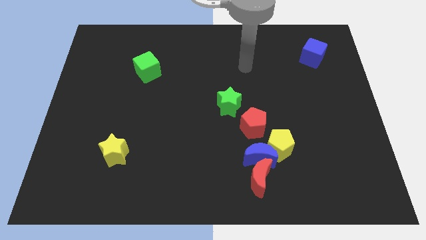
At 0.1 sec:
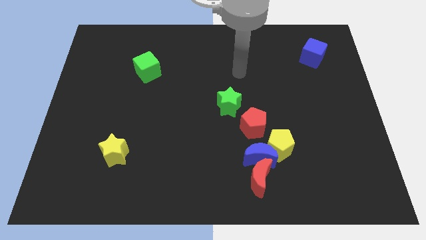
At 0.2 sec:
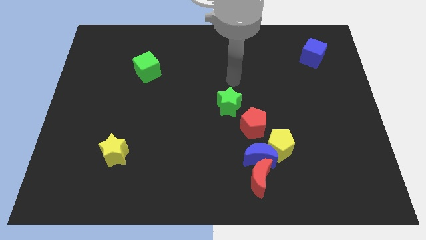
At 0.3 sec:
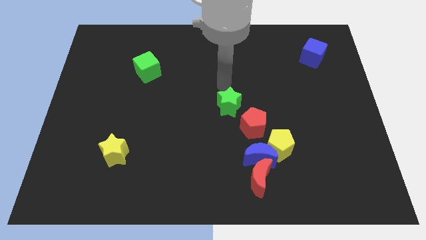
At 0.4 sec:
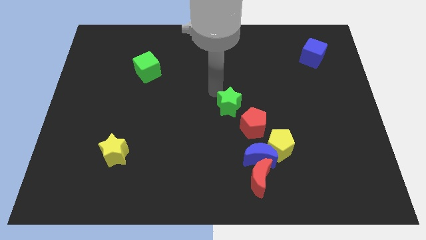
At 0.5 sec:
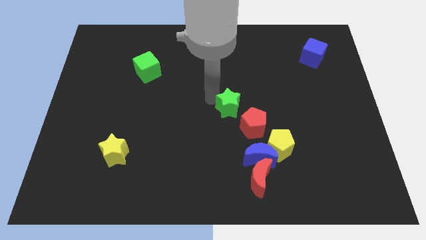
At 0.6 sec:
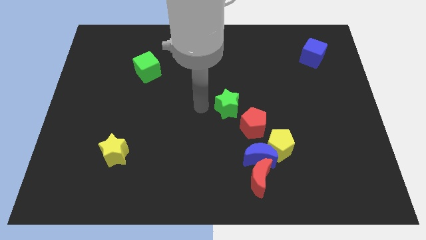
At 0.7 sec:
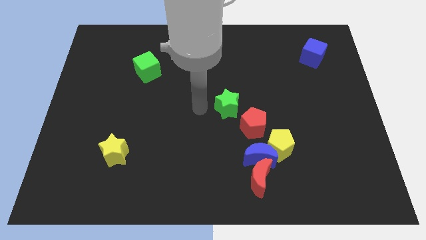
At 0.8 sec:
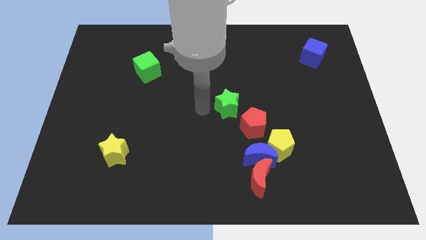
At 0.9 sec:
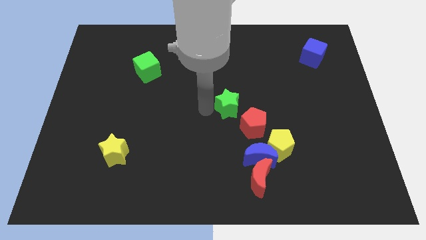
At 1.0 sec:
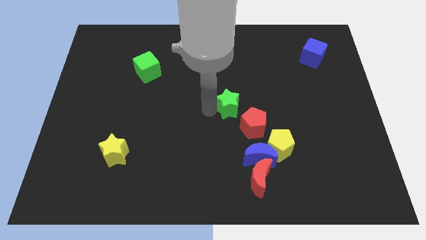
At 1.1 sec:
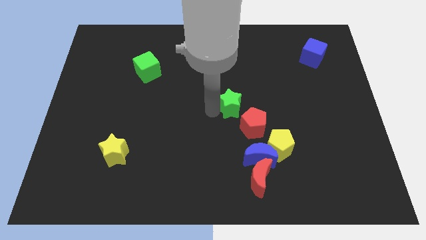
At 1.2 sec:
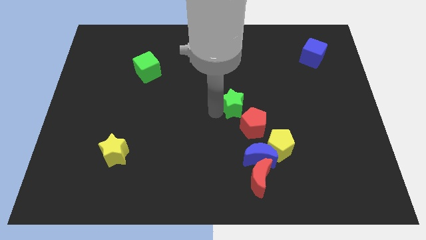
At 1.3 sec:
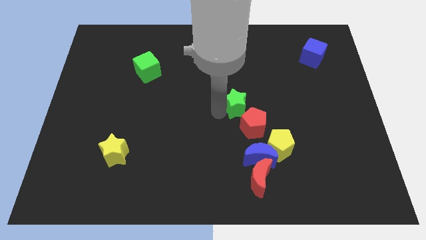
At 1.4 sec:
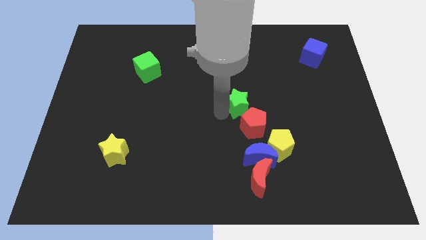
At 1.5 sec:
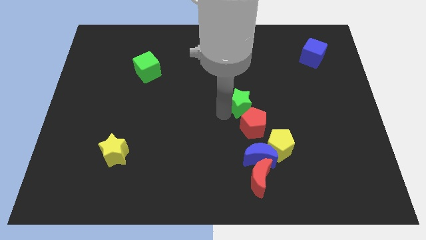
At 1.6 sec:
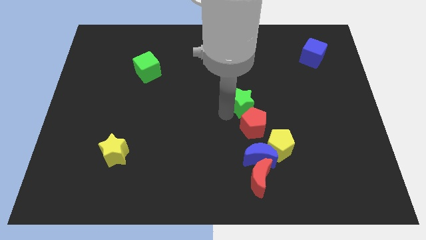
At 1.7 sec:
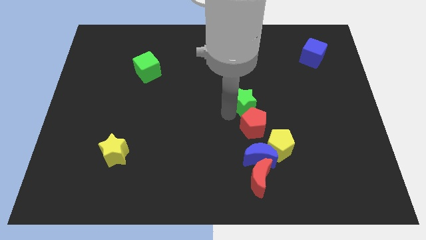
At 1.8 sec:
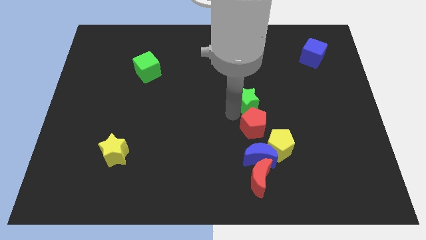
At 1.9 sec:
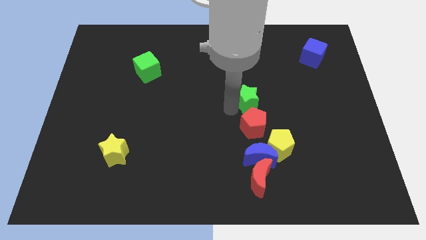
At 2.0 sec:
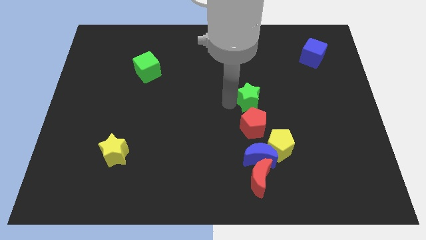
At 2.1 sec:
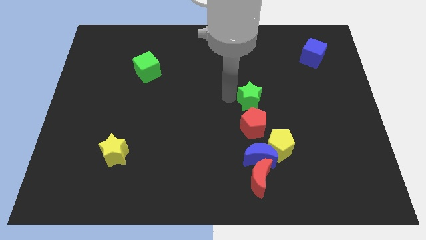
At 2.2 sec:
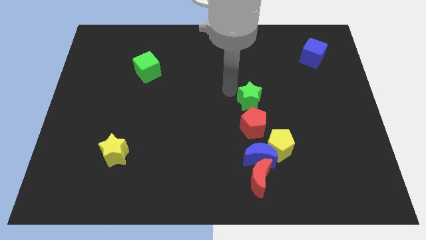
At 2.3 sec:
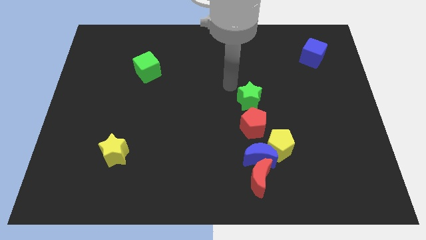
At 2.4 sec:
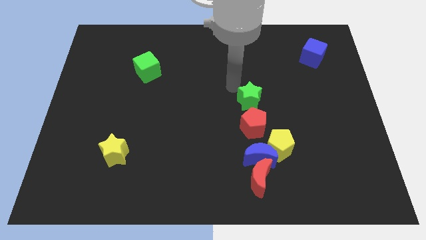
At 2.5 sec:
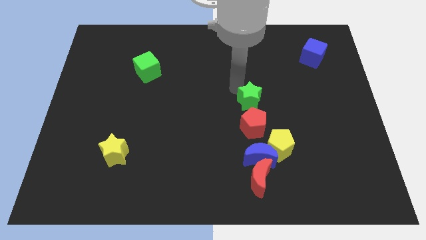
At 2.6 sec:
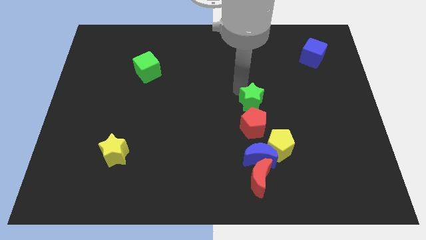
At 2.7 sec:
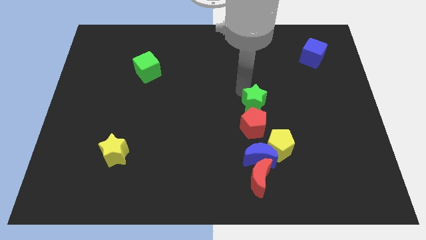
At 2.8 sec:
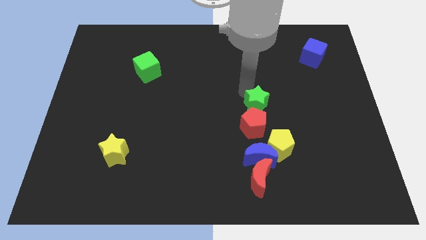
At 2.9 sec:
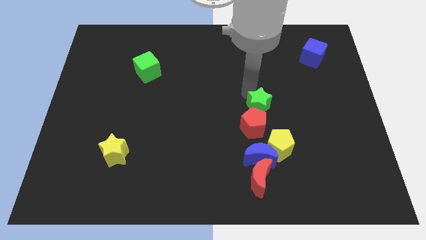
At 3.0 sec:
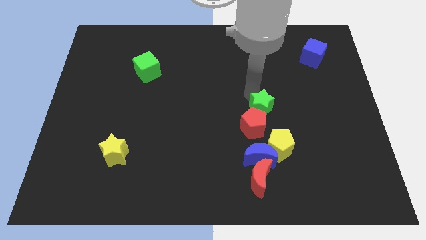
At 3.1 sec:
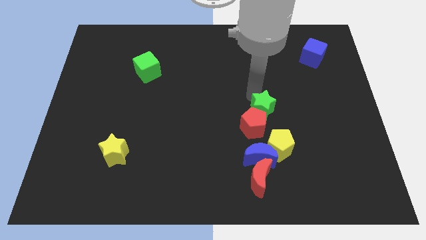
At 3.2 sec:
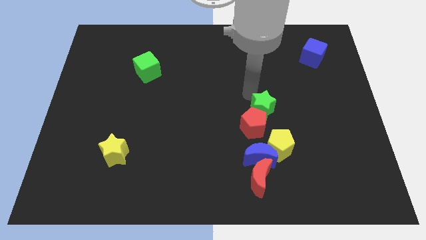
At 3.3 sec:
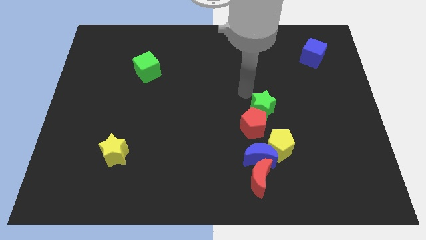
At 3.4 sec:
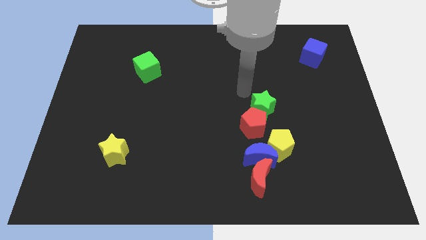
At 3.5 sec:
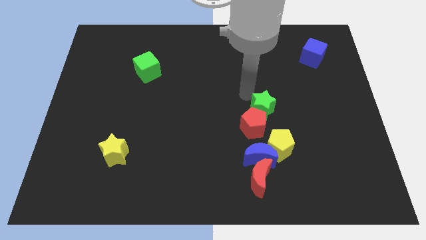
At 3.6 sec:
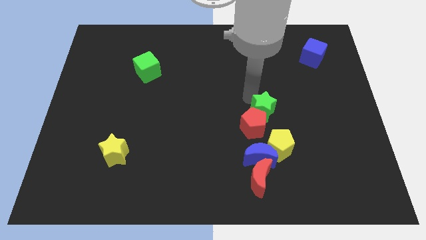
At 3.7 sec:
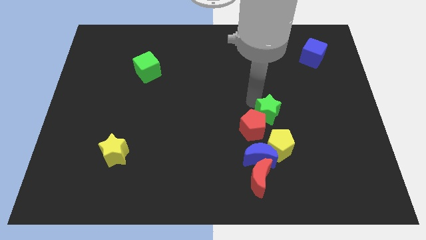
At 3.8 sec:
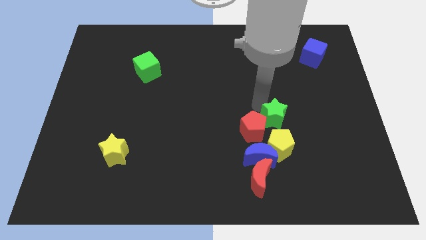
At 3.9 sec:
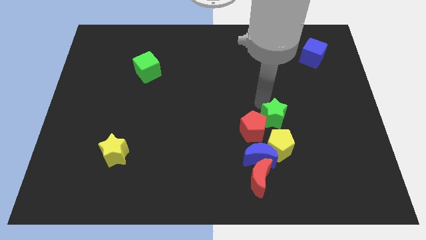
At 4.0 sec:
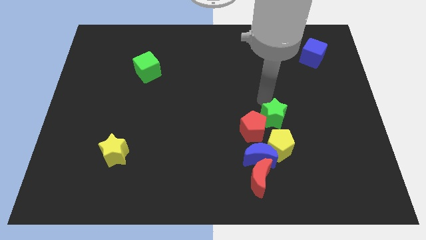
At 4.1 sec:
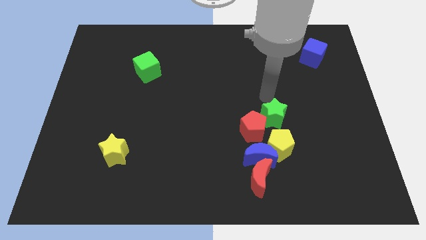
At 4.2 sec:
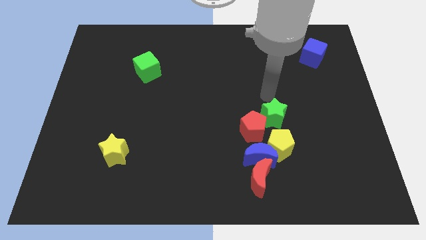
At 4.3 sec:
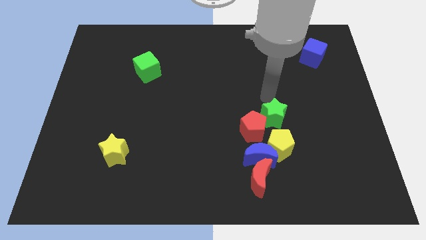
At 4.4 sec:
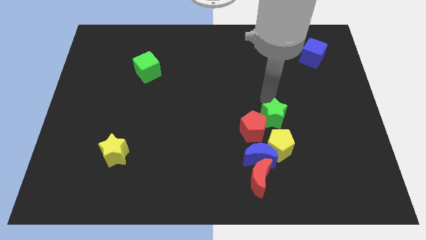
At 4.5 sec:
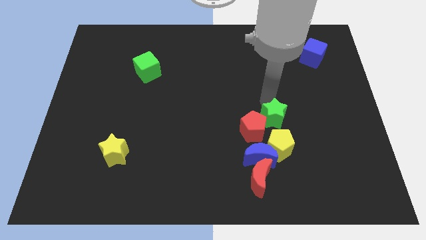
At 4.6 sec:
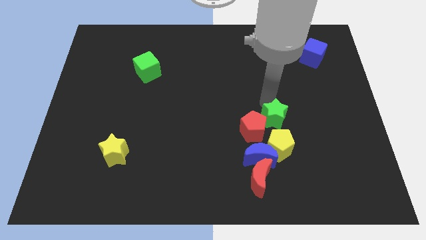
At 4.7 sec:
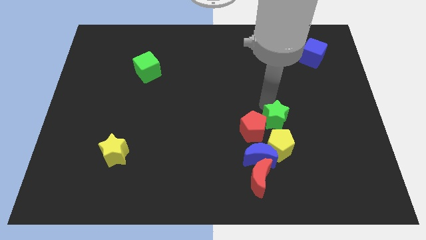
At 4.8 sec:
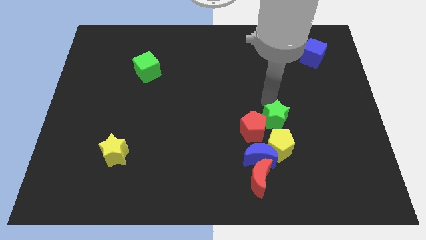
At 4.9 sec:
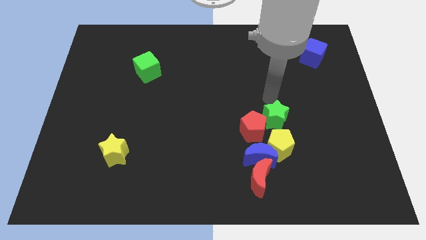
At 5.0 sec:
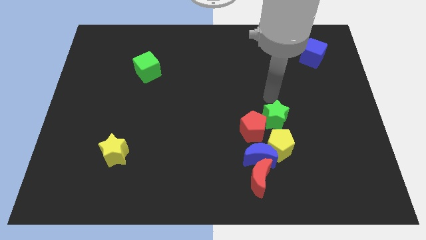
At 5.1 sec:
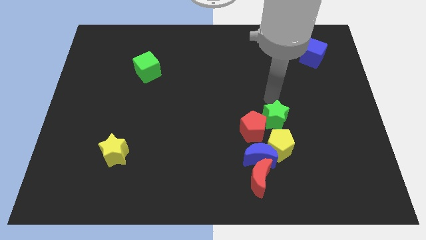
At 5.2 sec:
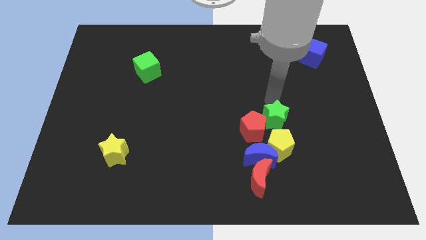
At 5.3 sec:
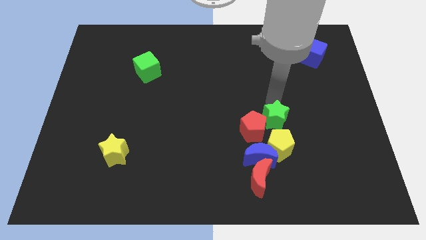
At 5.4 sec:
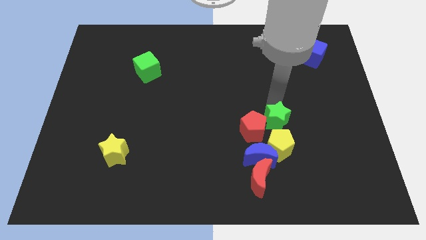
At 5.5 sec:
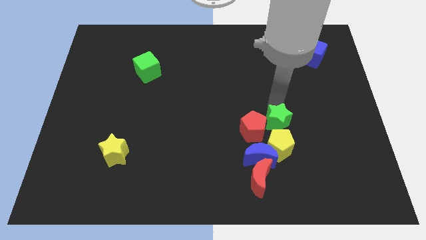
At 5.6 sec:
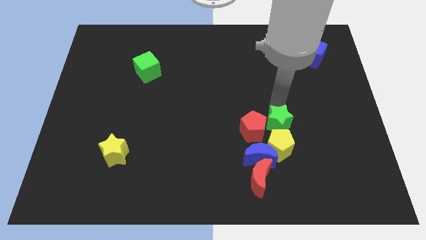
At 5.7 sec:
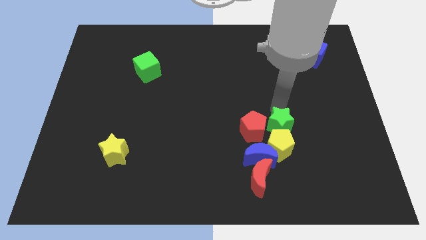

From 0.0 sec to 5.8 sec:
push the green star to the yellow pentagon

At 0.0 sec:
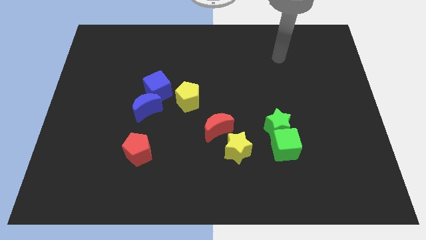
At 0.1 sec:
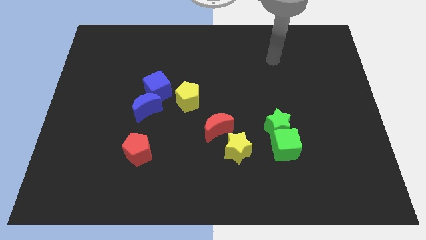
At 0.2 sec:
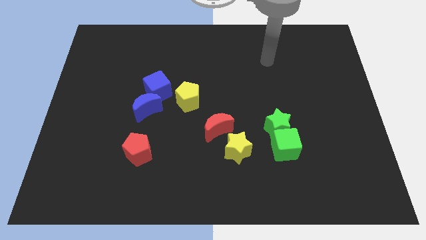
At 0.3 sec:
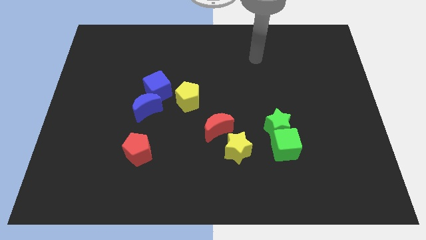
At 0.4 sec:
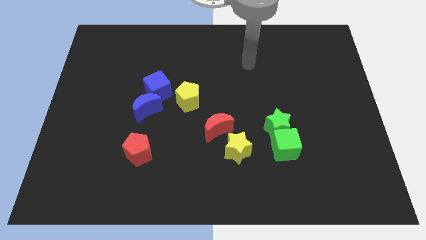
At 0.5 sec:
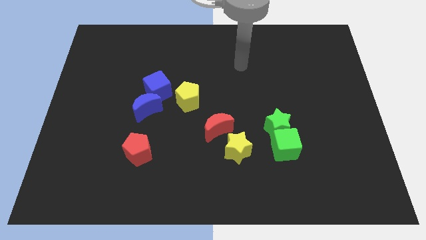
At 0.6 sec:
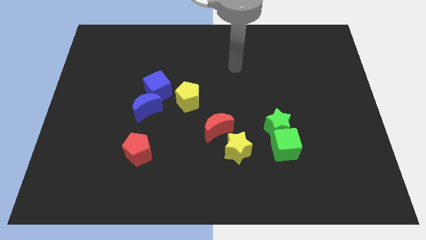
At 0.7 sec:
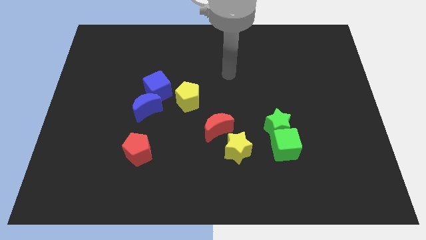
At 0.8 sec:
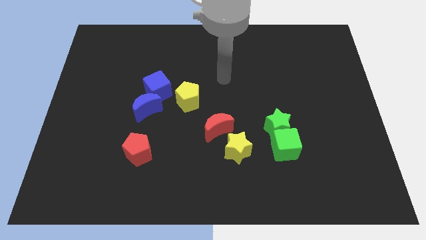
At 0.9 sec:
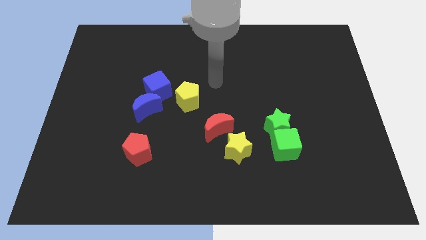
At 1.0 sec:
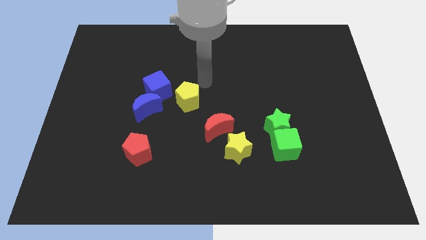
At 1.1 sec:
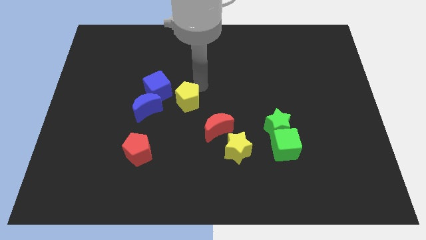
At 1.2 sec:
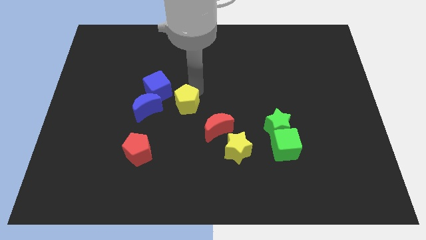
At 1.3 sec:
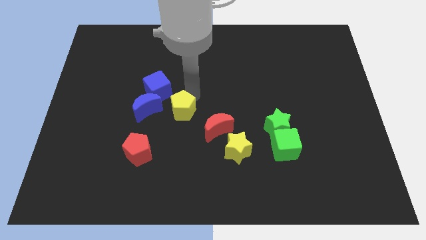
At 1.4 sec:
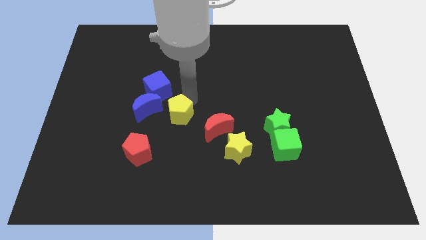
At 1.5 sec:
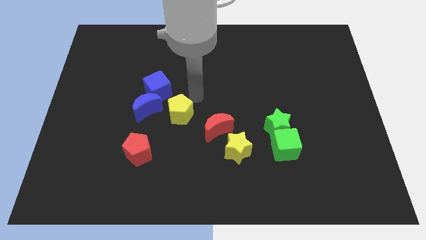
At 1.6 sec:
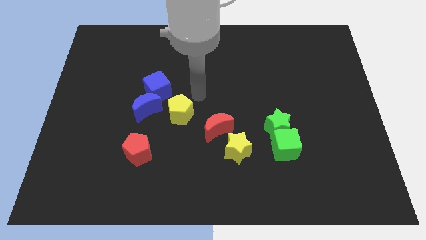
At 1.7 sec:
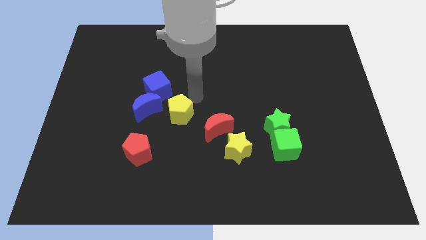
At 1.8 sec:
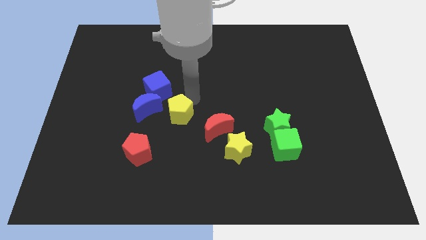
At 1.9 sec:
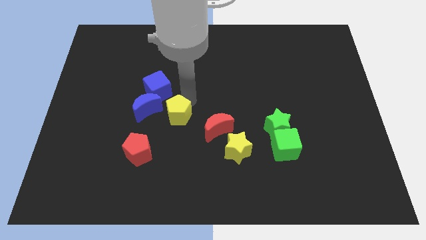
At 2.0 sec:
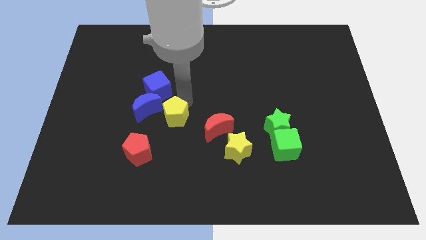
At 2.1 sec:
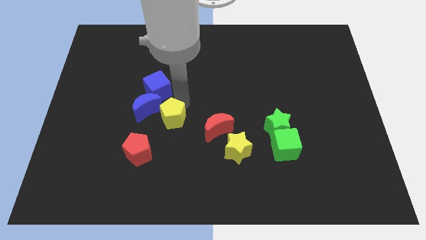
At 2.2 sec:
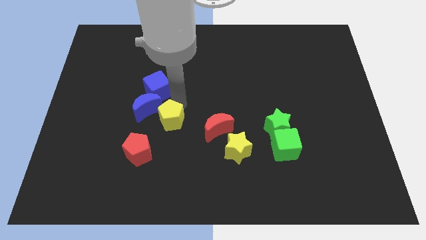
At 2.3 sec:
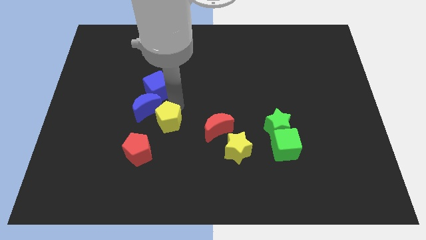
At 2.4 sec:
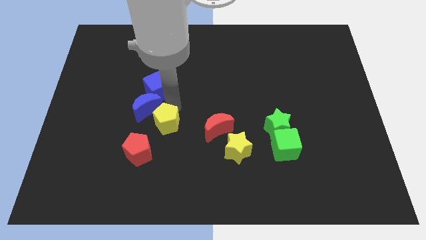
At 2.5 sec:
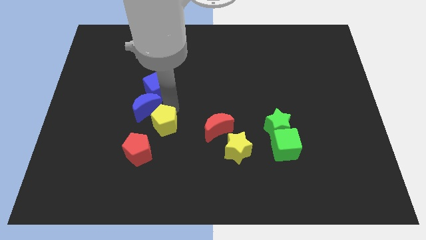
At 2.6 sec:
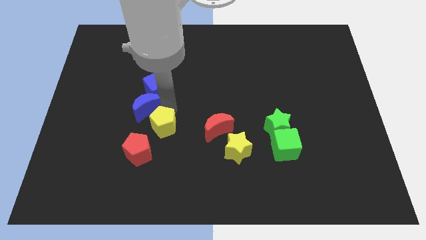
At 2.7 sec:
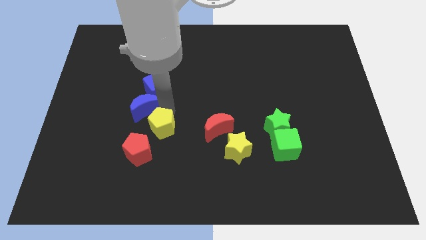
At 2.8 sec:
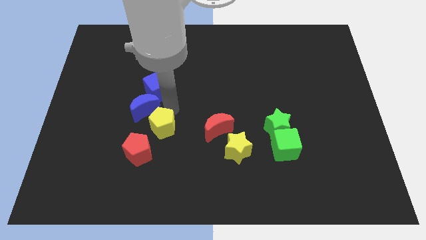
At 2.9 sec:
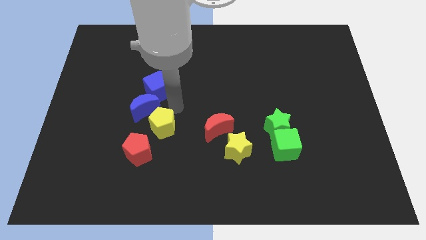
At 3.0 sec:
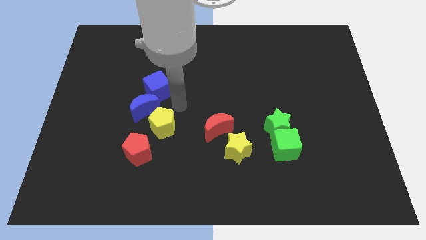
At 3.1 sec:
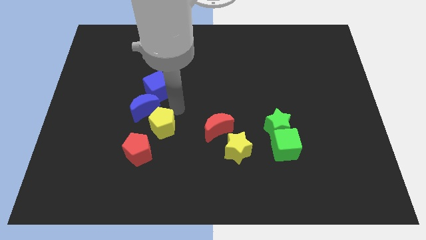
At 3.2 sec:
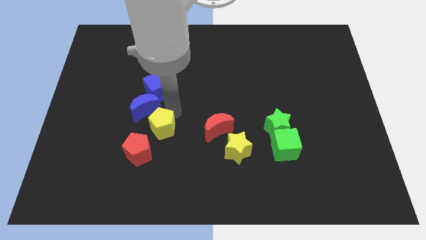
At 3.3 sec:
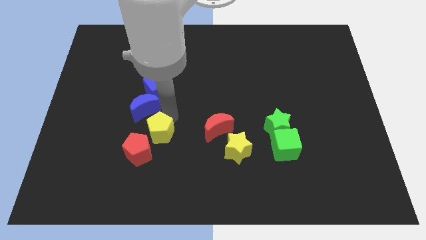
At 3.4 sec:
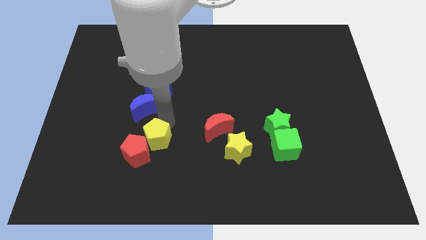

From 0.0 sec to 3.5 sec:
put the yellow pentagon next to the red pentagon
